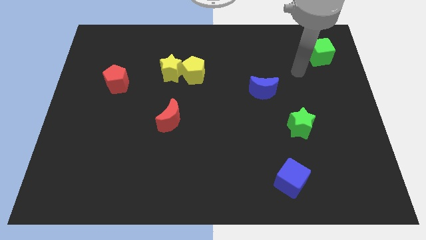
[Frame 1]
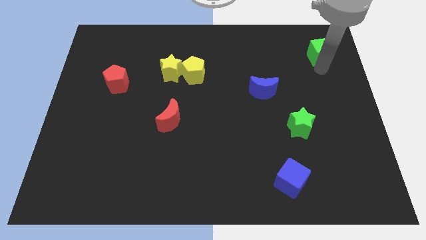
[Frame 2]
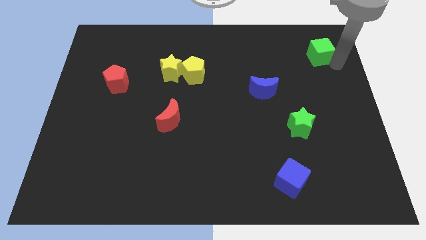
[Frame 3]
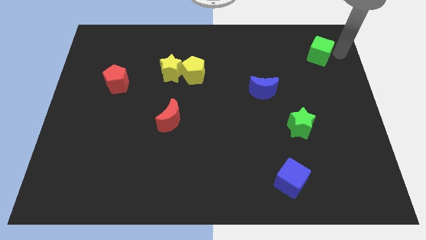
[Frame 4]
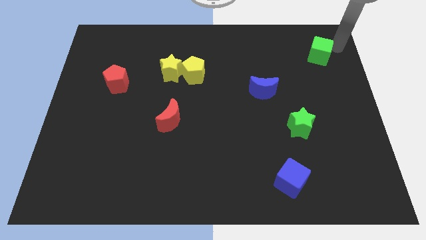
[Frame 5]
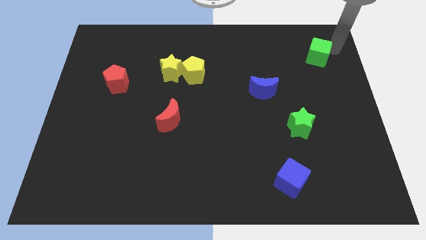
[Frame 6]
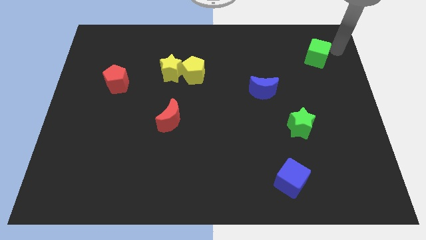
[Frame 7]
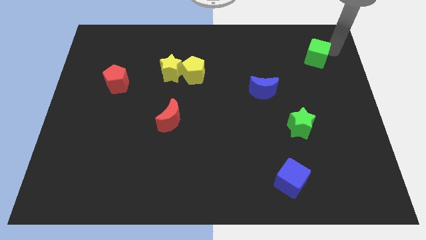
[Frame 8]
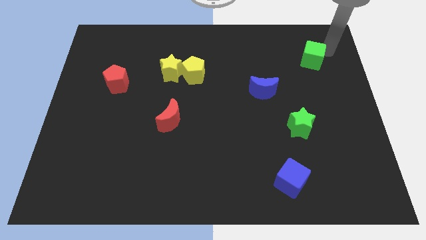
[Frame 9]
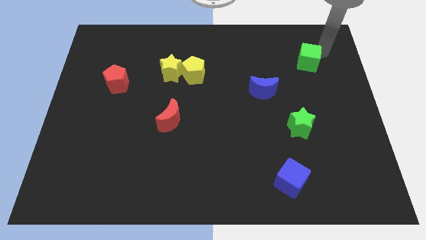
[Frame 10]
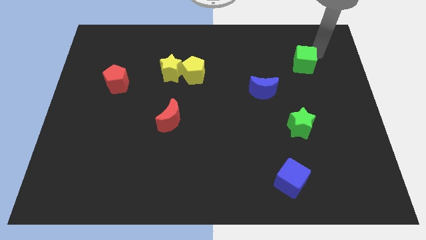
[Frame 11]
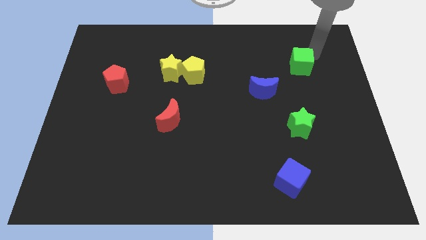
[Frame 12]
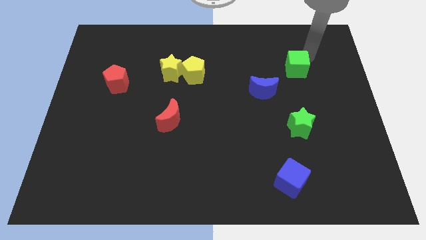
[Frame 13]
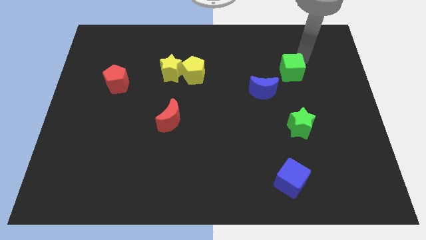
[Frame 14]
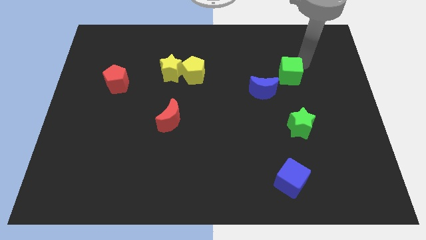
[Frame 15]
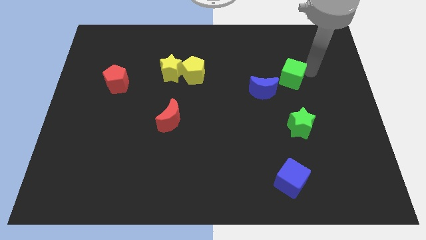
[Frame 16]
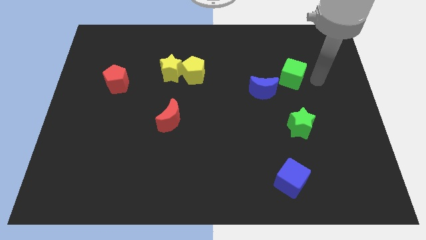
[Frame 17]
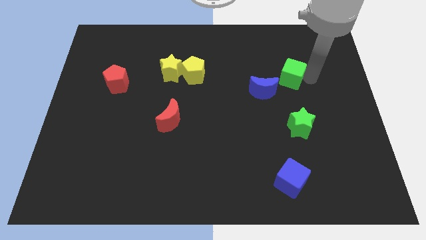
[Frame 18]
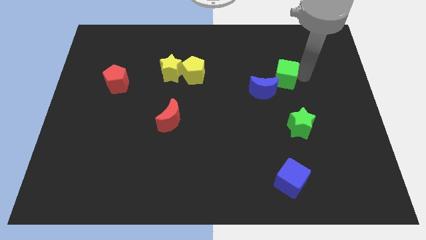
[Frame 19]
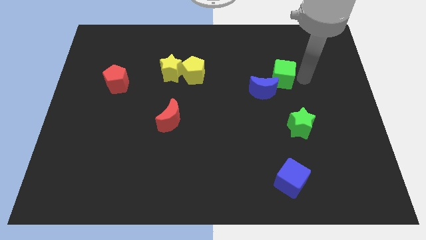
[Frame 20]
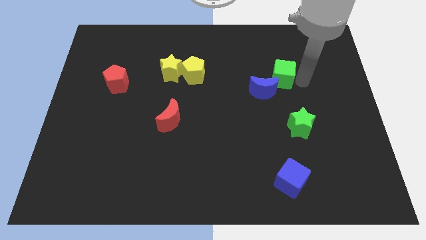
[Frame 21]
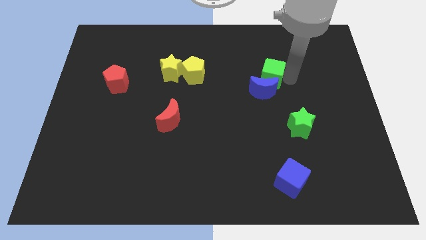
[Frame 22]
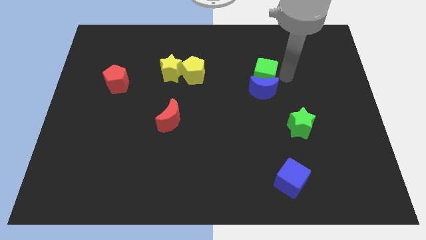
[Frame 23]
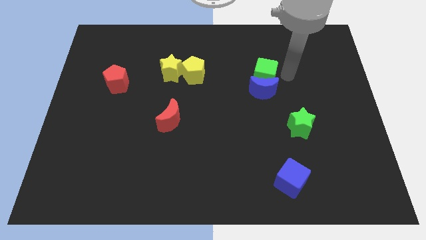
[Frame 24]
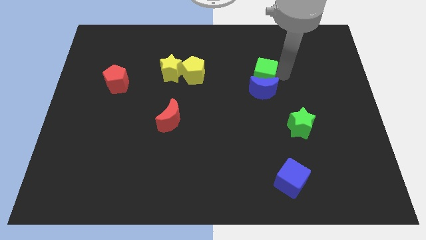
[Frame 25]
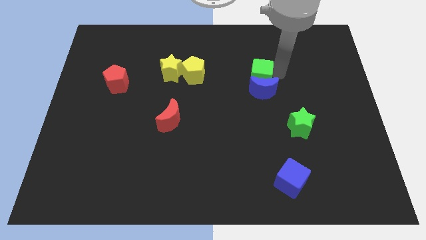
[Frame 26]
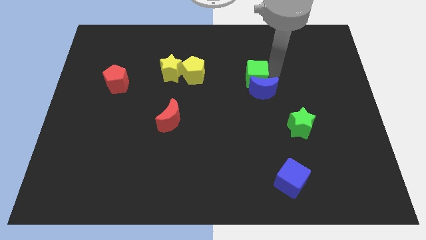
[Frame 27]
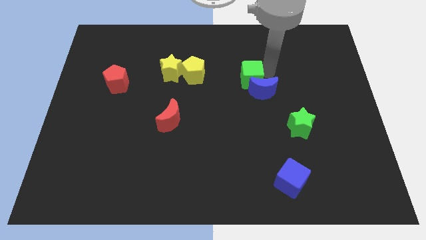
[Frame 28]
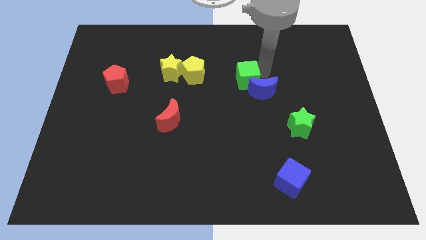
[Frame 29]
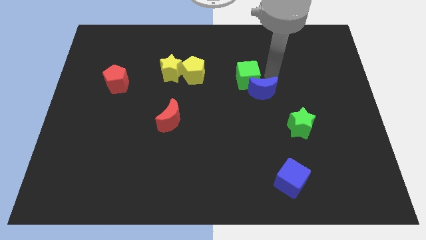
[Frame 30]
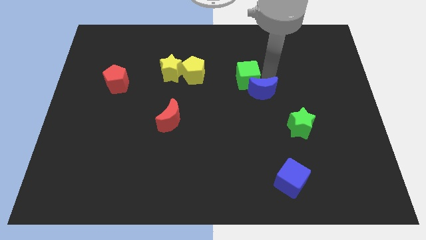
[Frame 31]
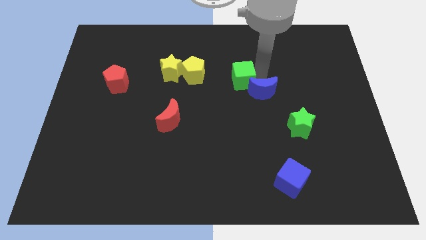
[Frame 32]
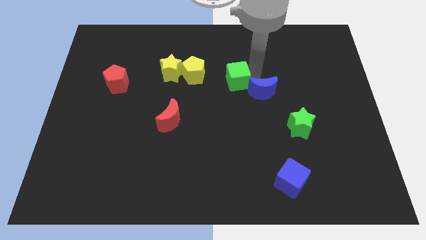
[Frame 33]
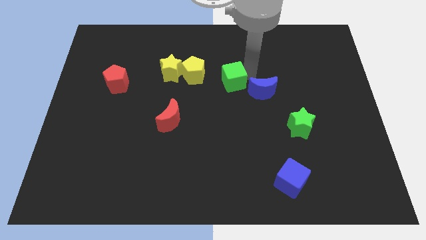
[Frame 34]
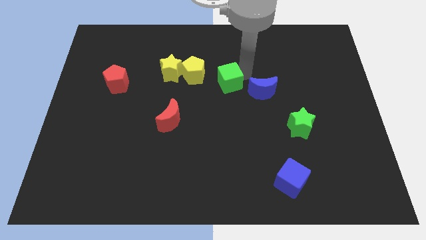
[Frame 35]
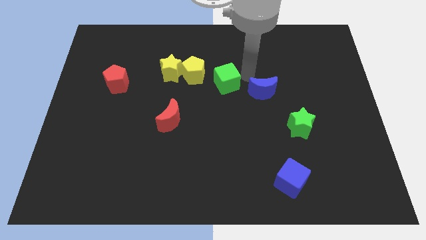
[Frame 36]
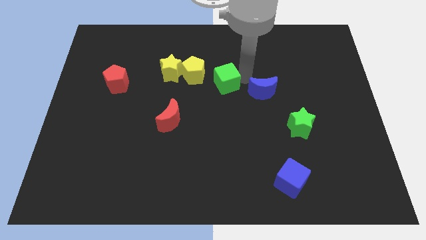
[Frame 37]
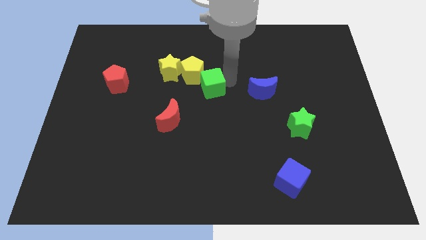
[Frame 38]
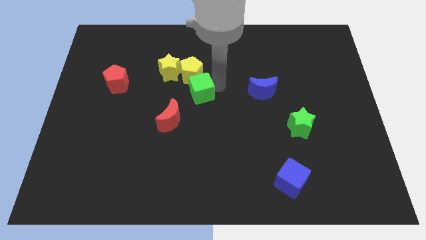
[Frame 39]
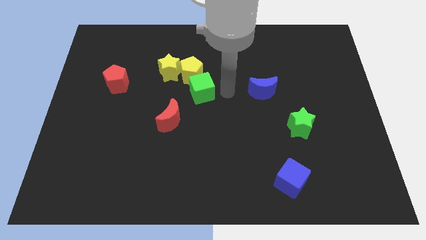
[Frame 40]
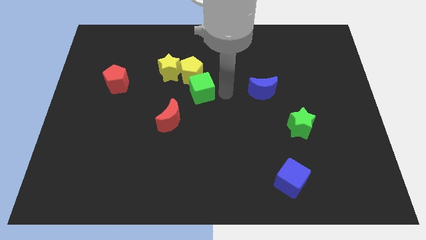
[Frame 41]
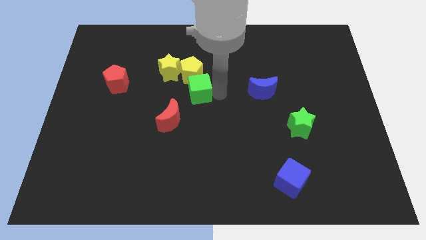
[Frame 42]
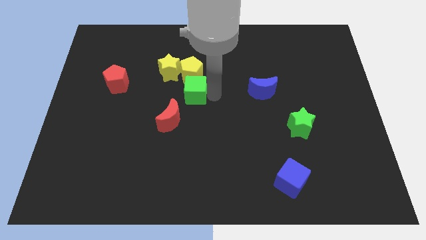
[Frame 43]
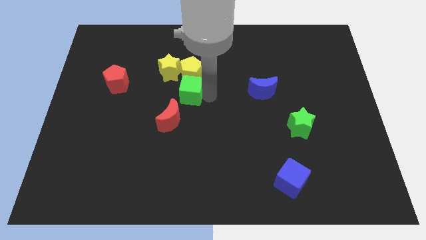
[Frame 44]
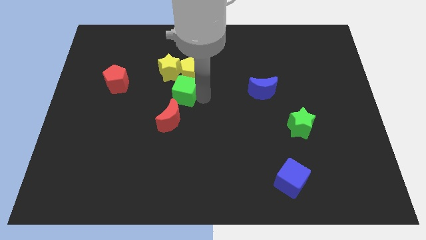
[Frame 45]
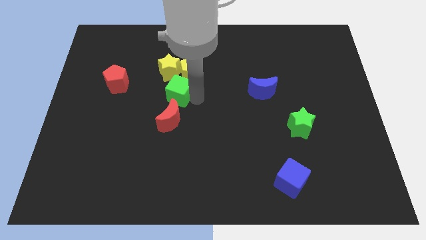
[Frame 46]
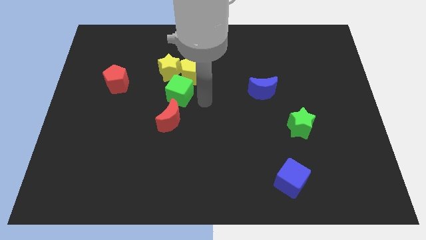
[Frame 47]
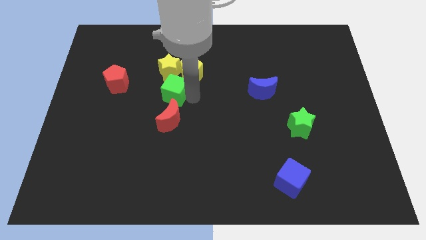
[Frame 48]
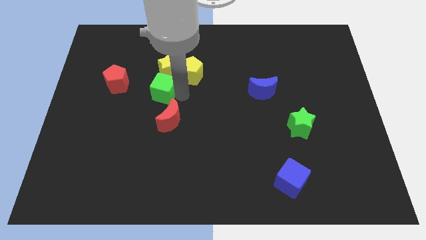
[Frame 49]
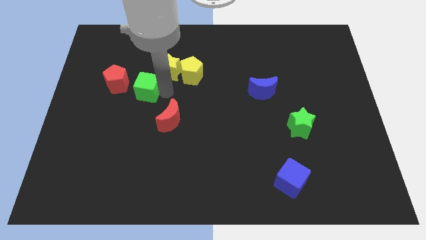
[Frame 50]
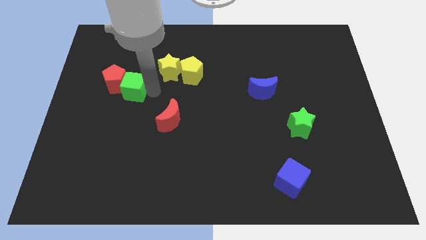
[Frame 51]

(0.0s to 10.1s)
put the green cube close to the red pentagon

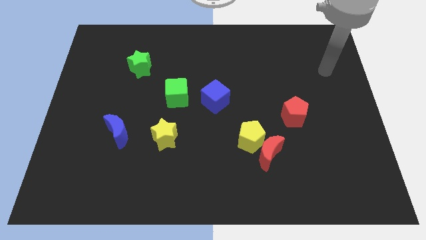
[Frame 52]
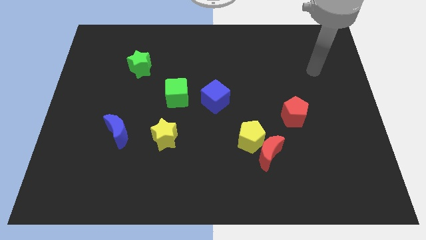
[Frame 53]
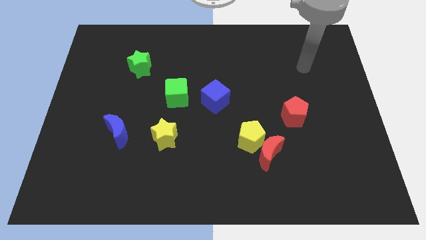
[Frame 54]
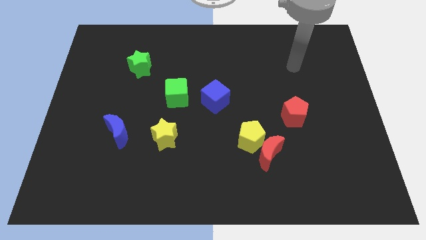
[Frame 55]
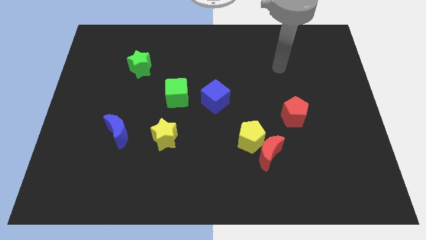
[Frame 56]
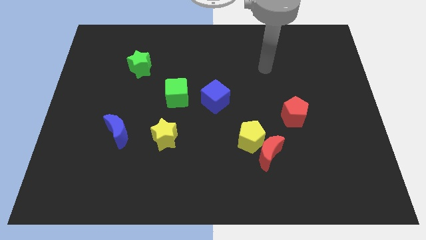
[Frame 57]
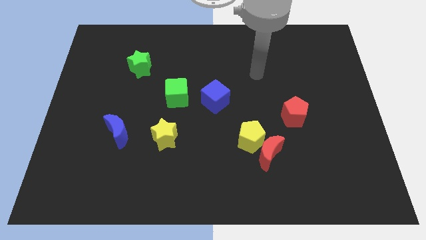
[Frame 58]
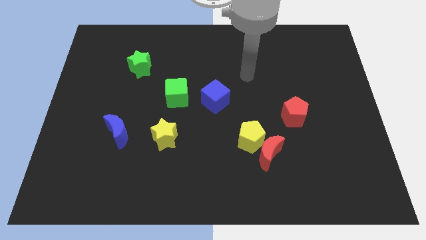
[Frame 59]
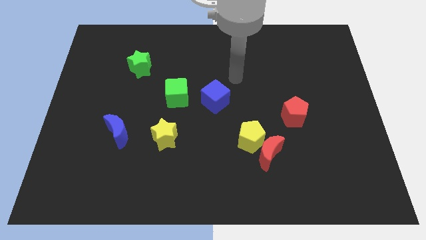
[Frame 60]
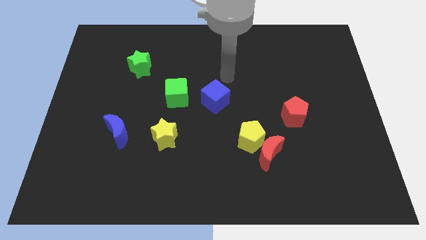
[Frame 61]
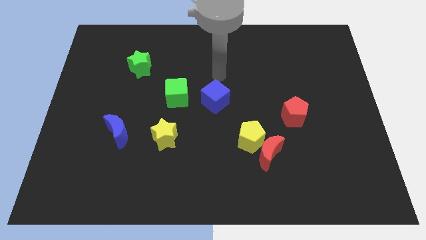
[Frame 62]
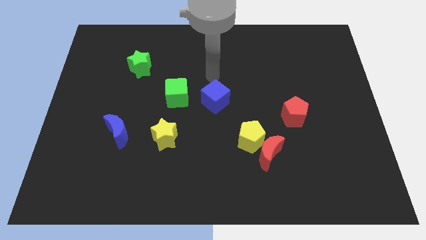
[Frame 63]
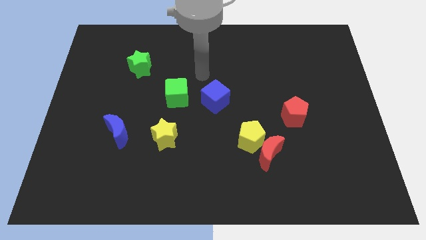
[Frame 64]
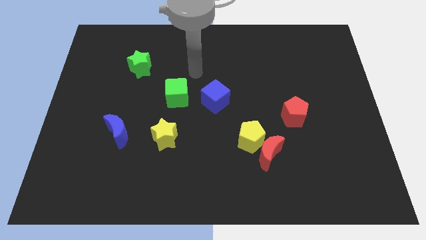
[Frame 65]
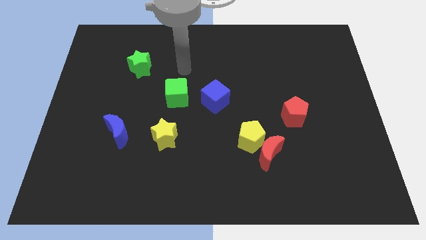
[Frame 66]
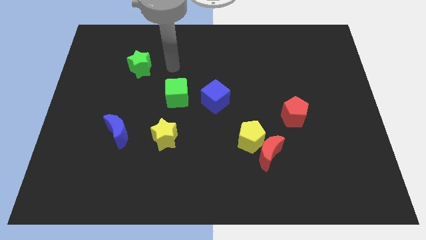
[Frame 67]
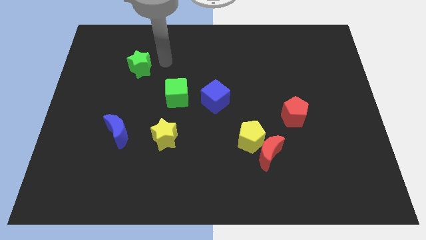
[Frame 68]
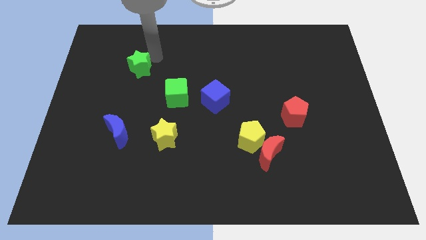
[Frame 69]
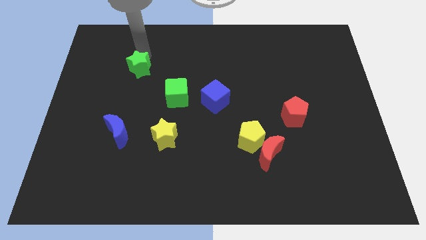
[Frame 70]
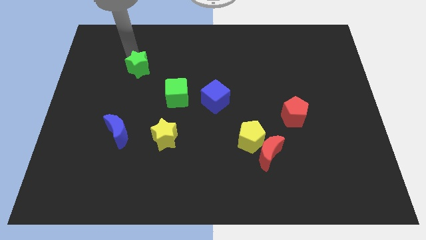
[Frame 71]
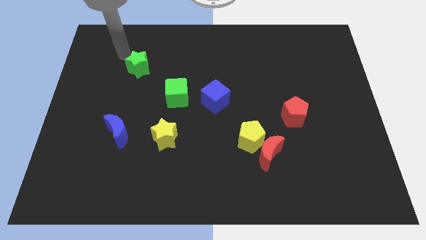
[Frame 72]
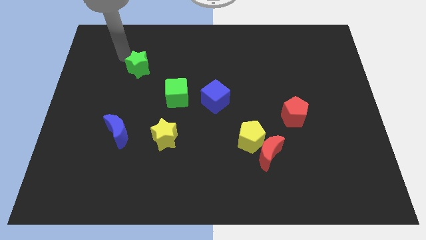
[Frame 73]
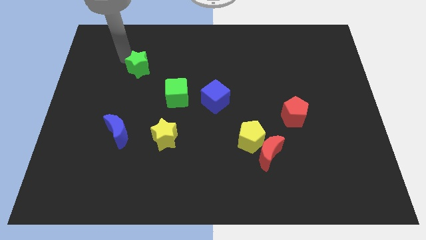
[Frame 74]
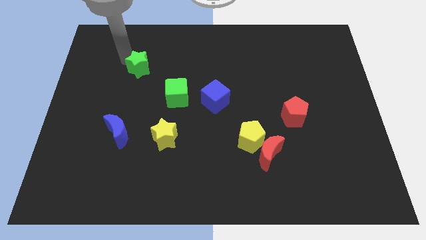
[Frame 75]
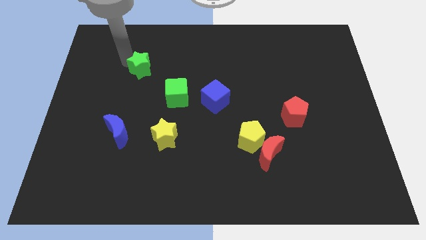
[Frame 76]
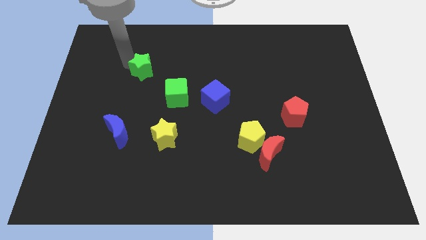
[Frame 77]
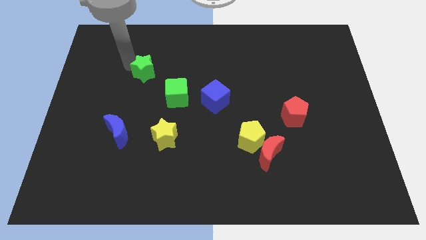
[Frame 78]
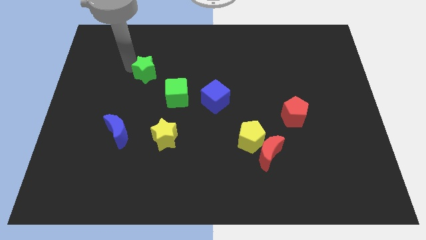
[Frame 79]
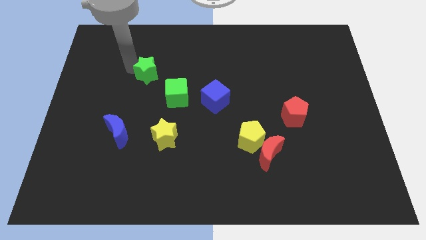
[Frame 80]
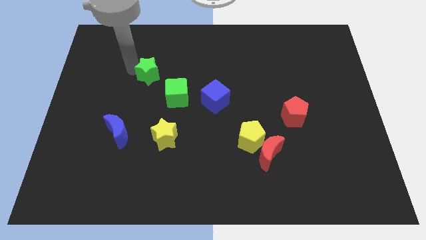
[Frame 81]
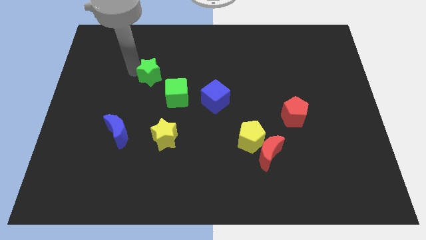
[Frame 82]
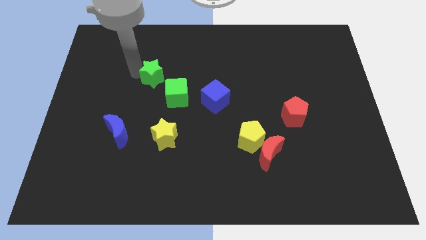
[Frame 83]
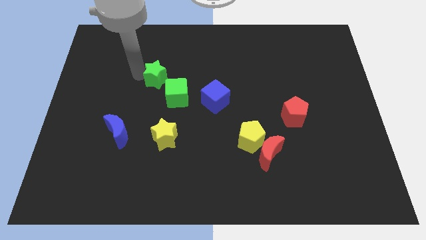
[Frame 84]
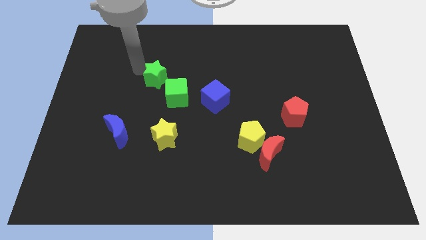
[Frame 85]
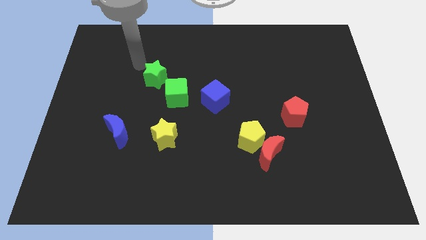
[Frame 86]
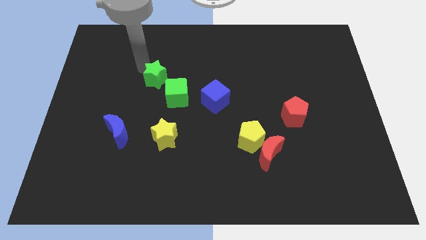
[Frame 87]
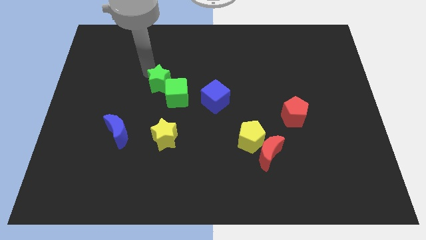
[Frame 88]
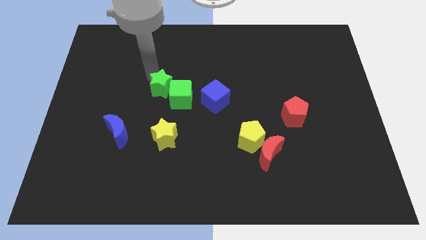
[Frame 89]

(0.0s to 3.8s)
move the green star close to the green cube
